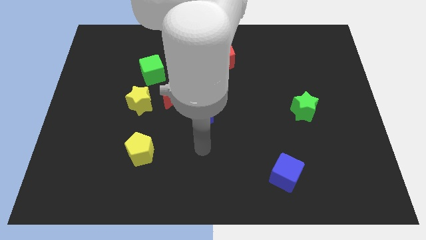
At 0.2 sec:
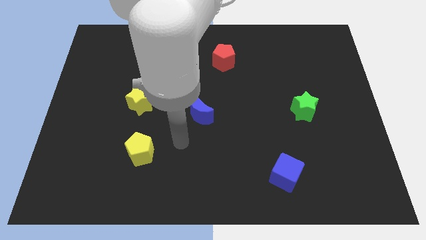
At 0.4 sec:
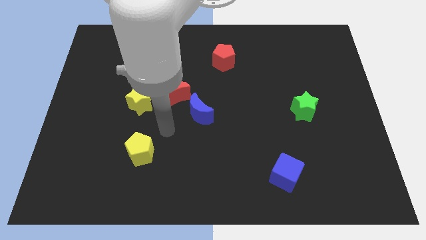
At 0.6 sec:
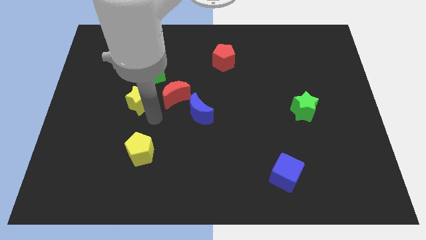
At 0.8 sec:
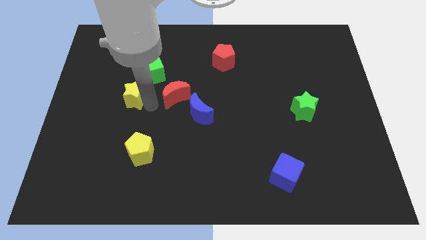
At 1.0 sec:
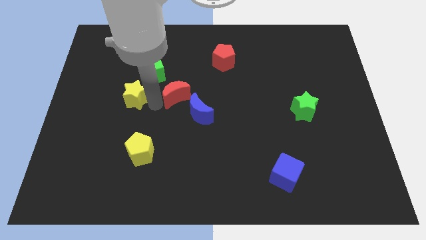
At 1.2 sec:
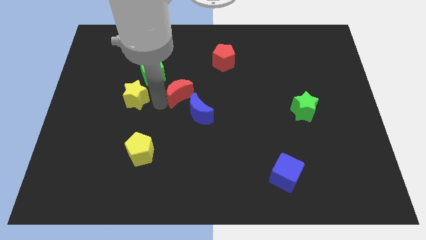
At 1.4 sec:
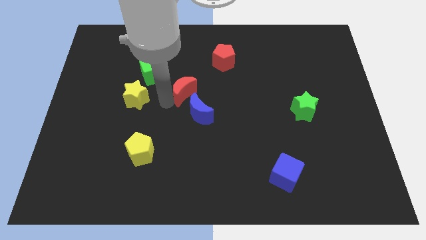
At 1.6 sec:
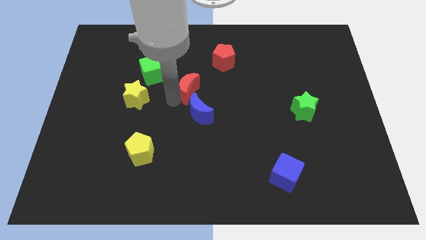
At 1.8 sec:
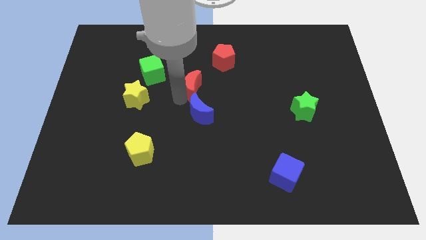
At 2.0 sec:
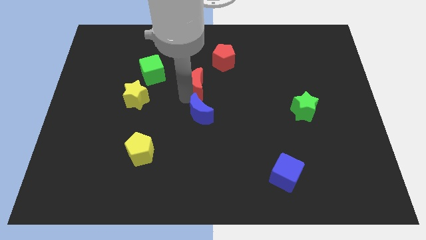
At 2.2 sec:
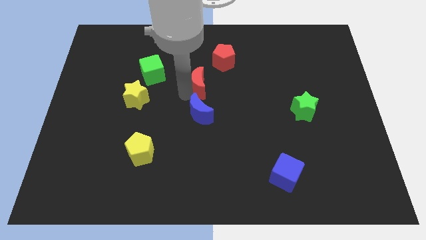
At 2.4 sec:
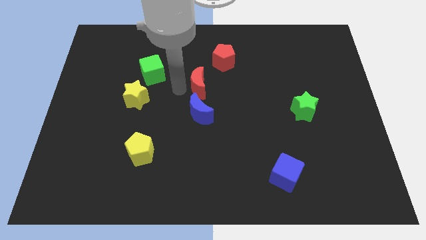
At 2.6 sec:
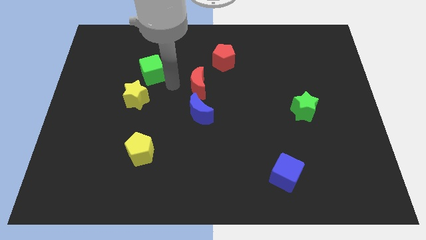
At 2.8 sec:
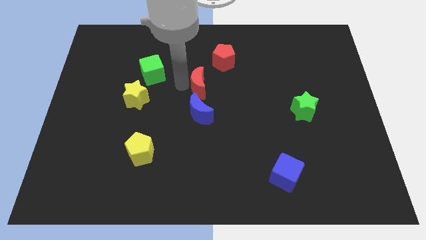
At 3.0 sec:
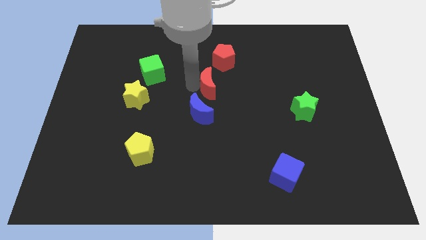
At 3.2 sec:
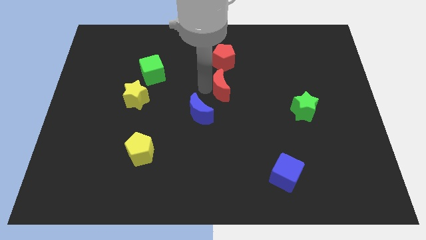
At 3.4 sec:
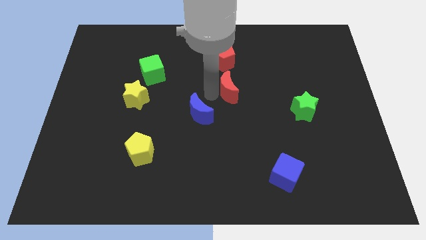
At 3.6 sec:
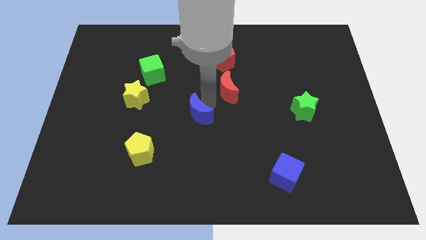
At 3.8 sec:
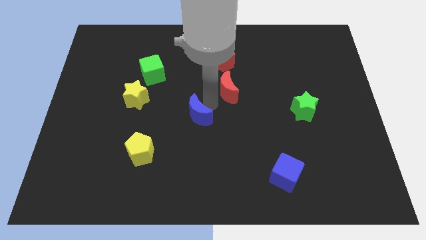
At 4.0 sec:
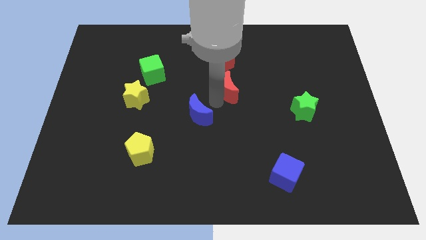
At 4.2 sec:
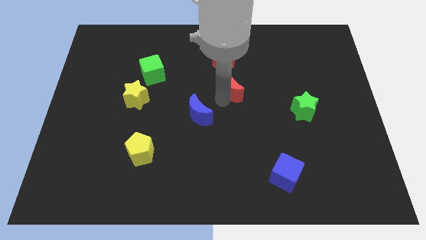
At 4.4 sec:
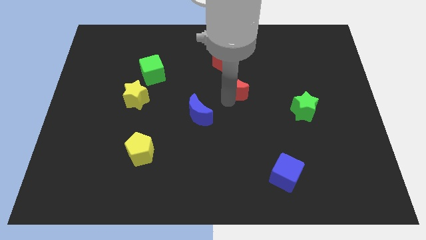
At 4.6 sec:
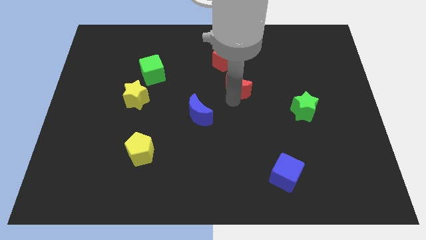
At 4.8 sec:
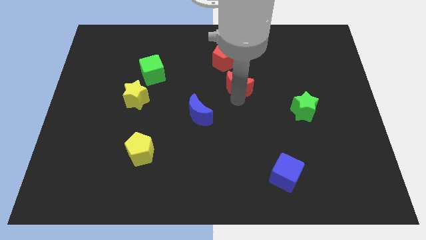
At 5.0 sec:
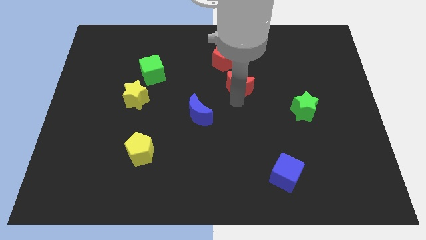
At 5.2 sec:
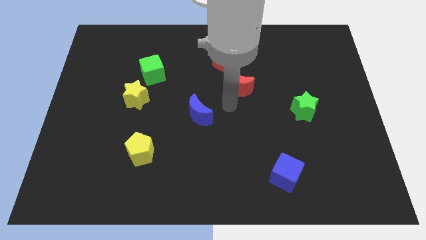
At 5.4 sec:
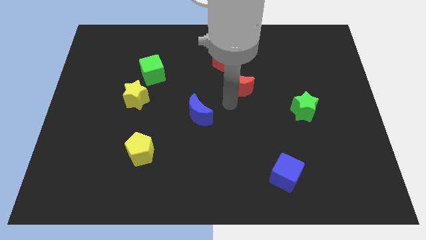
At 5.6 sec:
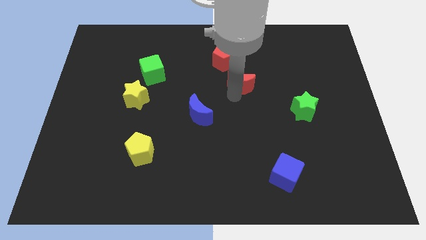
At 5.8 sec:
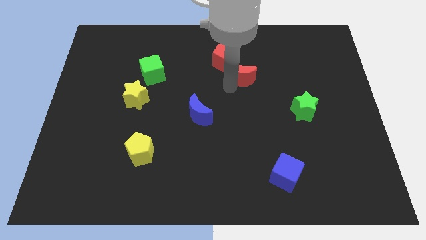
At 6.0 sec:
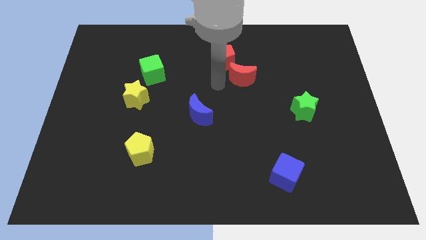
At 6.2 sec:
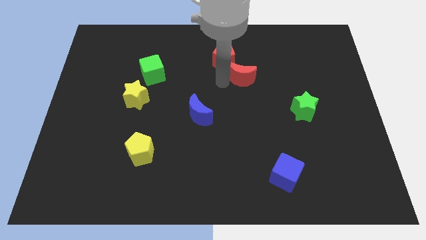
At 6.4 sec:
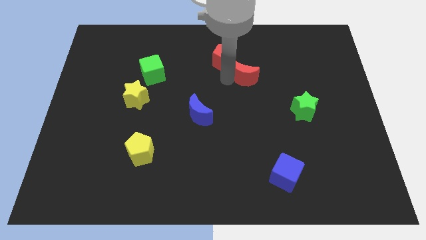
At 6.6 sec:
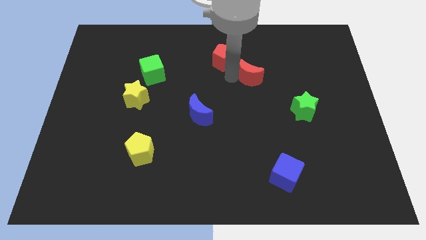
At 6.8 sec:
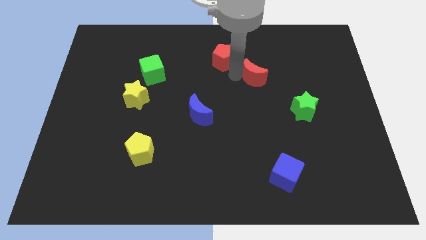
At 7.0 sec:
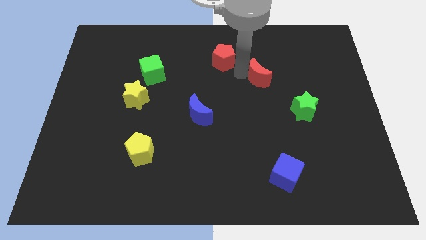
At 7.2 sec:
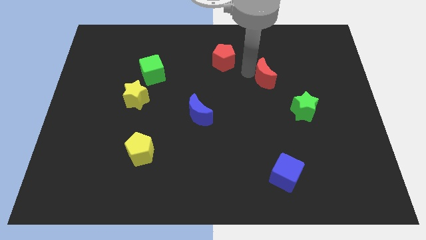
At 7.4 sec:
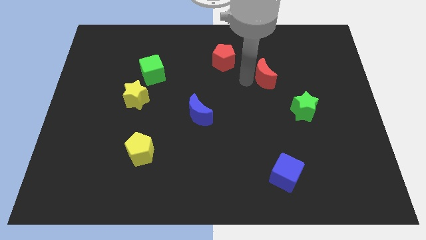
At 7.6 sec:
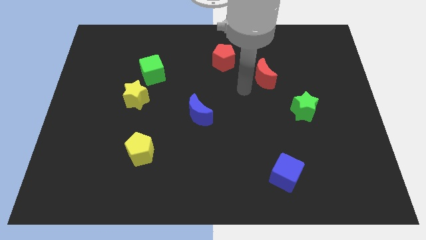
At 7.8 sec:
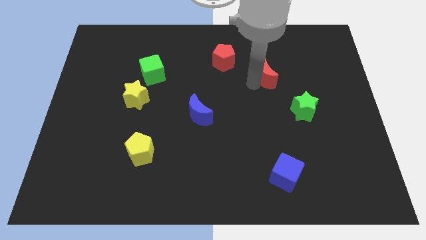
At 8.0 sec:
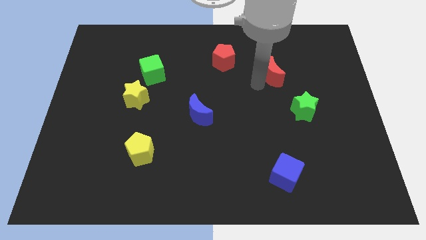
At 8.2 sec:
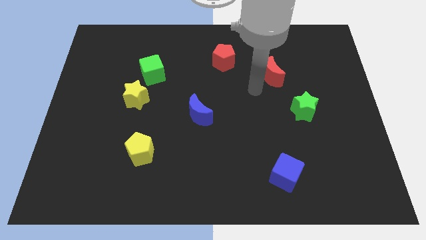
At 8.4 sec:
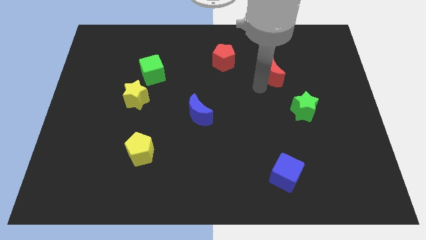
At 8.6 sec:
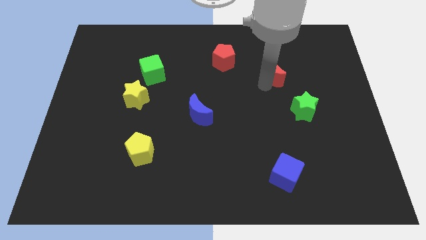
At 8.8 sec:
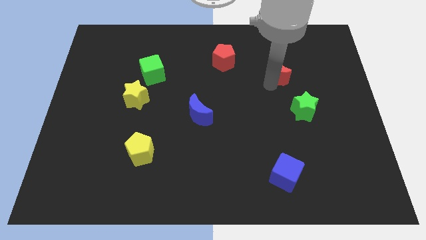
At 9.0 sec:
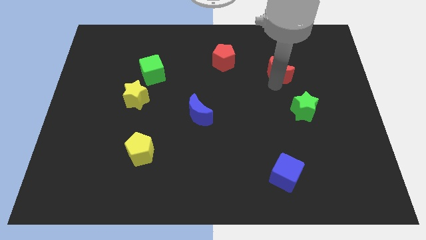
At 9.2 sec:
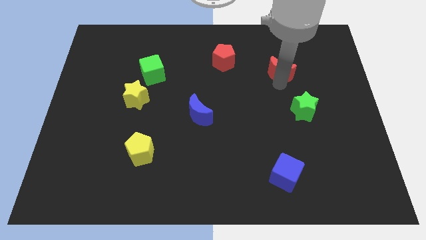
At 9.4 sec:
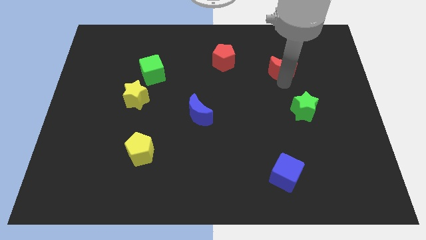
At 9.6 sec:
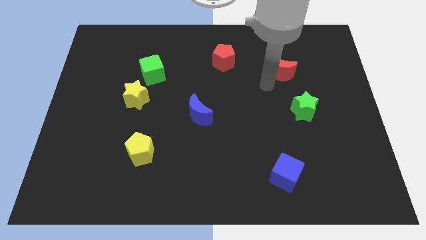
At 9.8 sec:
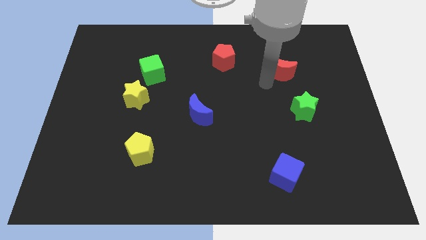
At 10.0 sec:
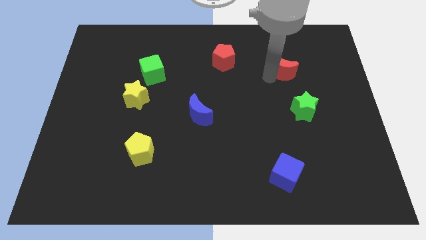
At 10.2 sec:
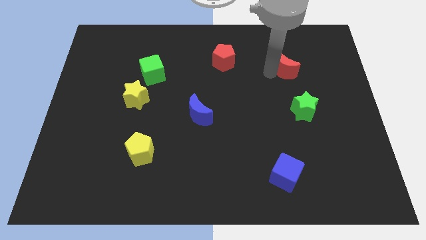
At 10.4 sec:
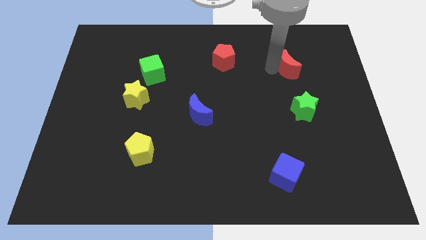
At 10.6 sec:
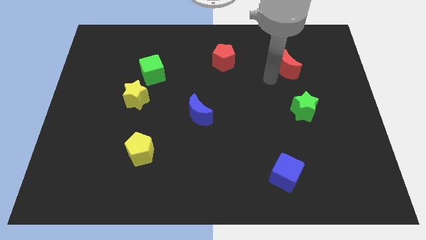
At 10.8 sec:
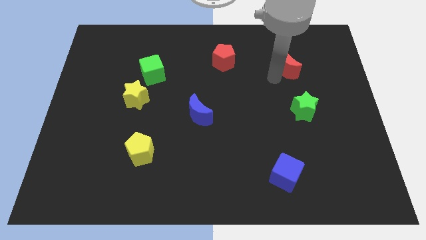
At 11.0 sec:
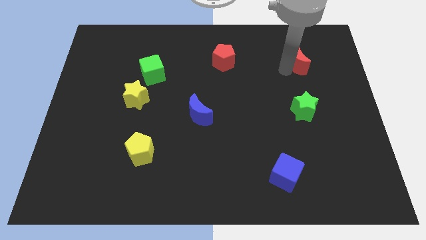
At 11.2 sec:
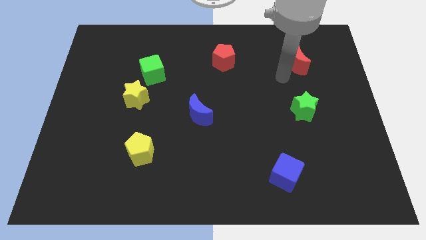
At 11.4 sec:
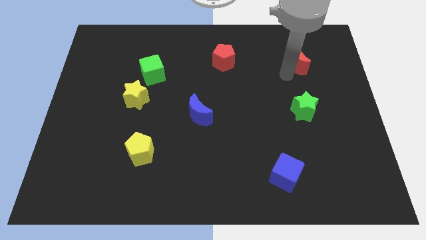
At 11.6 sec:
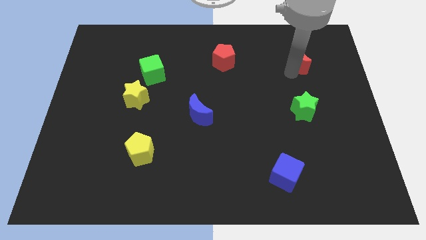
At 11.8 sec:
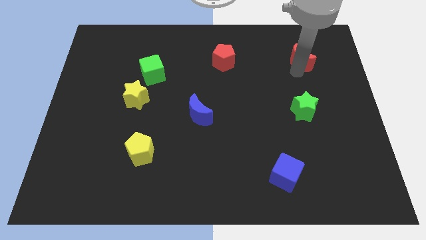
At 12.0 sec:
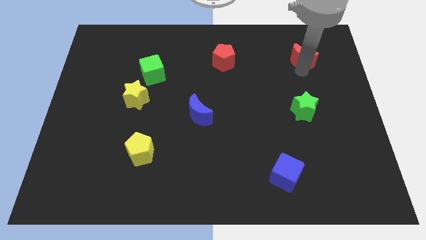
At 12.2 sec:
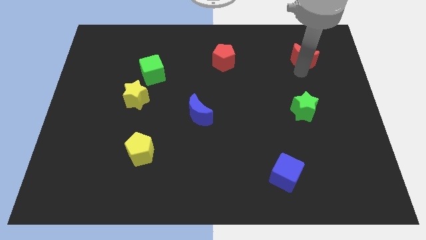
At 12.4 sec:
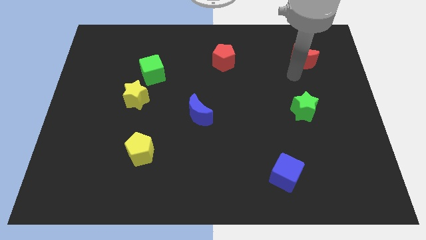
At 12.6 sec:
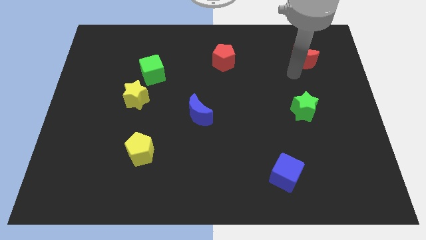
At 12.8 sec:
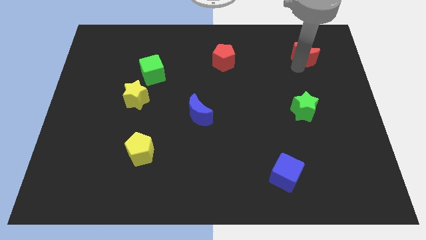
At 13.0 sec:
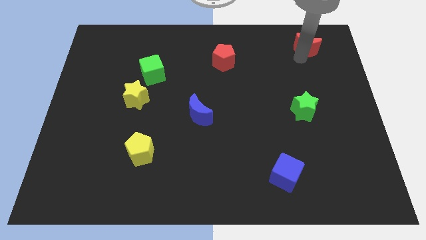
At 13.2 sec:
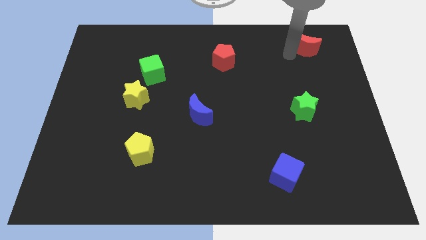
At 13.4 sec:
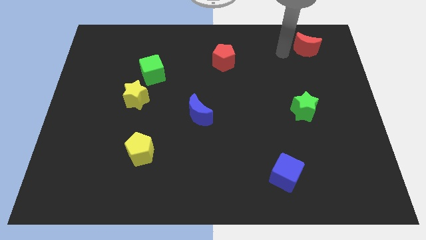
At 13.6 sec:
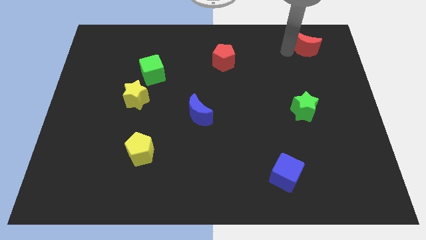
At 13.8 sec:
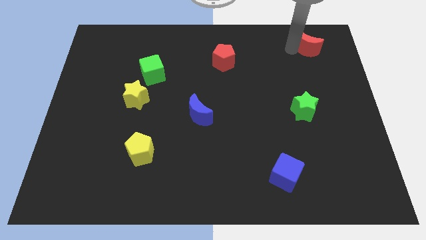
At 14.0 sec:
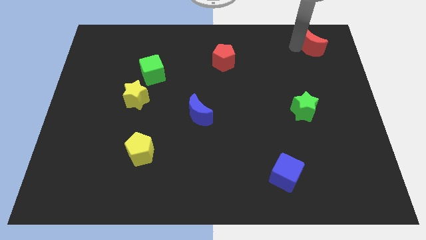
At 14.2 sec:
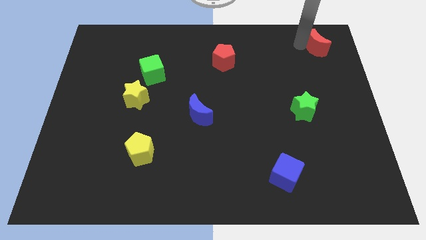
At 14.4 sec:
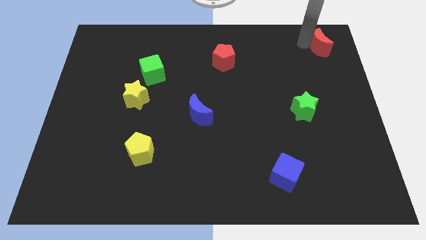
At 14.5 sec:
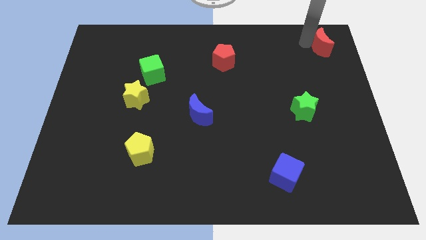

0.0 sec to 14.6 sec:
push the red moon to the top right of the board
